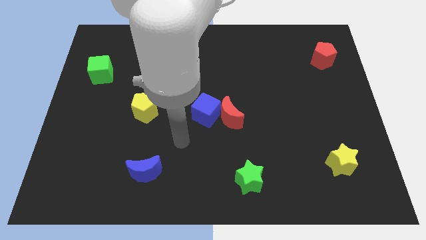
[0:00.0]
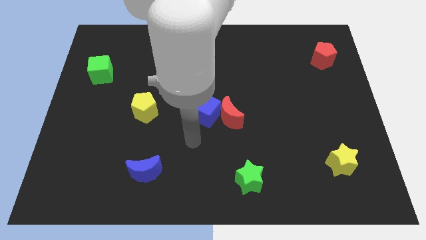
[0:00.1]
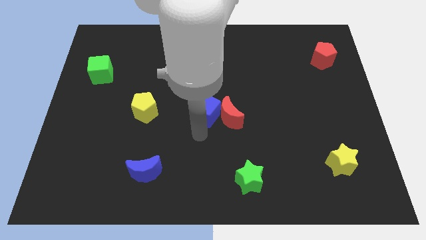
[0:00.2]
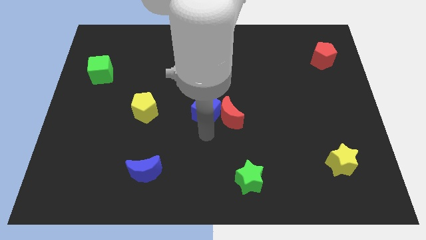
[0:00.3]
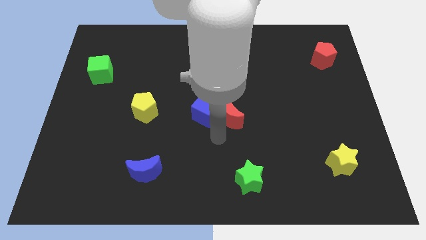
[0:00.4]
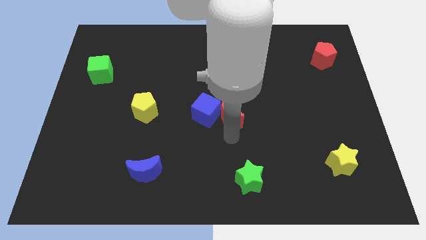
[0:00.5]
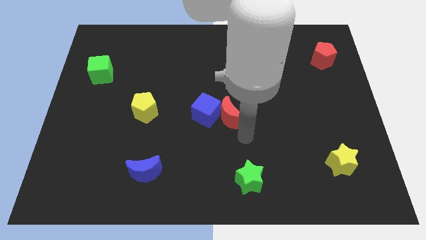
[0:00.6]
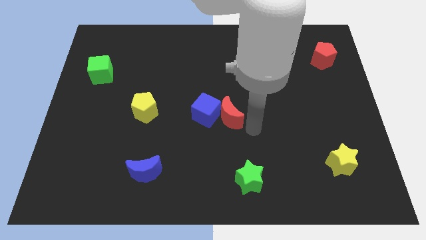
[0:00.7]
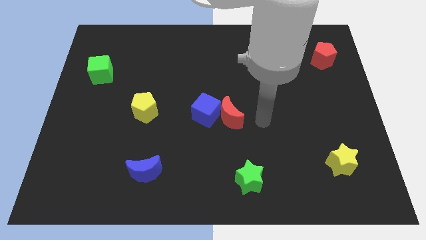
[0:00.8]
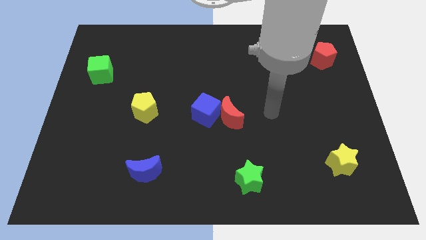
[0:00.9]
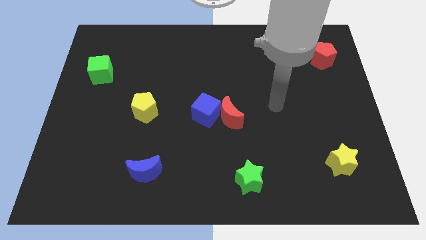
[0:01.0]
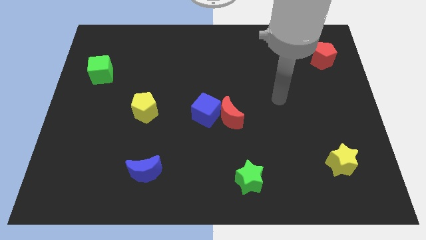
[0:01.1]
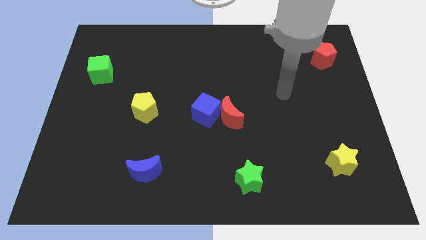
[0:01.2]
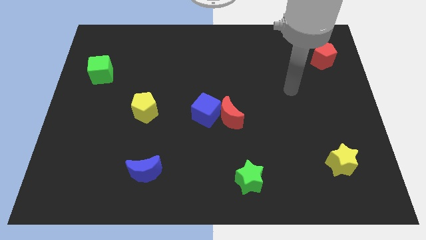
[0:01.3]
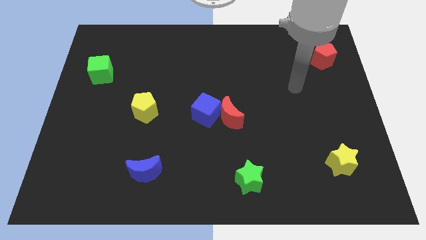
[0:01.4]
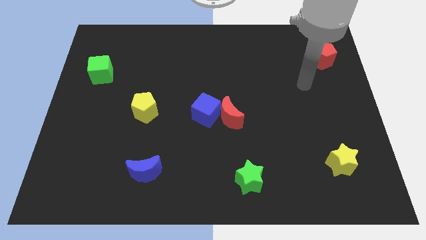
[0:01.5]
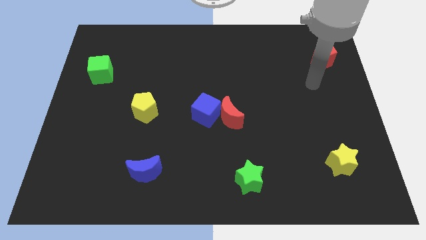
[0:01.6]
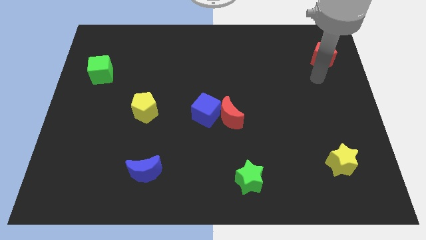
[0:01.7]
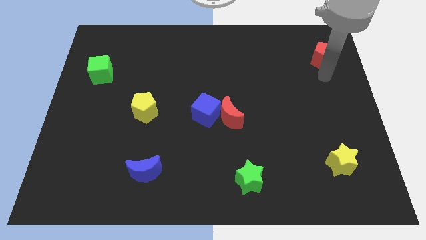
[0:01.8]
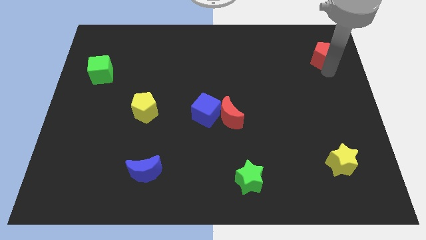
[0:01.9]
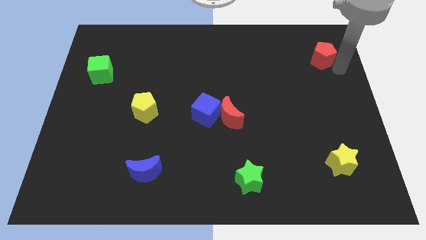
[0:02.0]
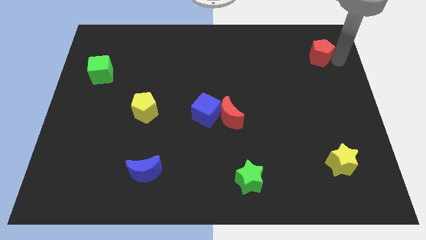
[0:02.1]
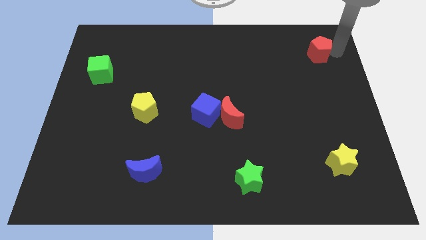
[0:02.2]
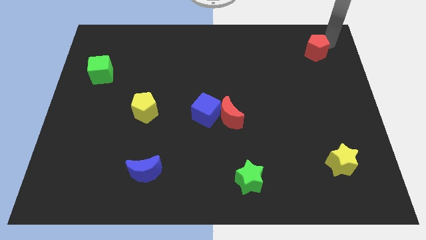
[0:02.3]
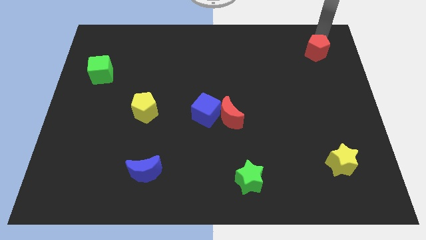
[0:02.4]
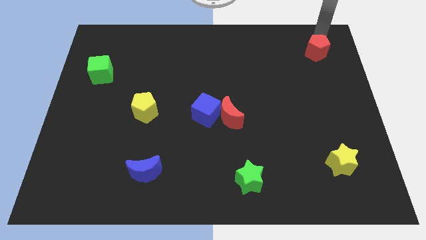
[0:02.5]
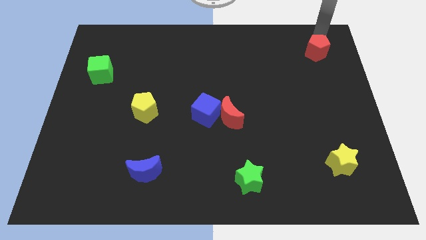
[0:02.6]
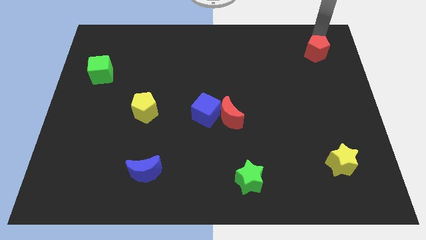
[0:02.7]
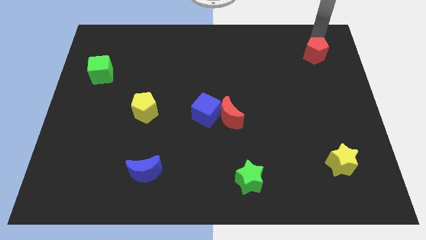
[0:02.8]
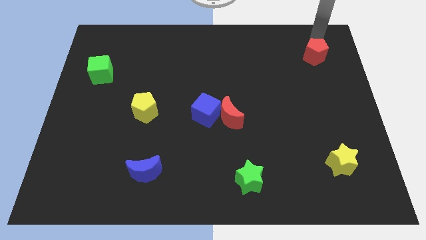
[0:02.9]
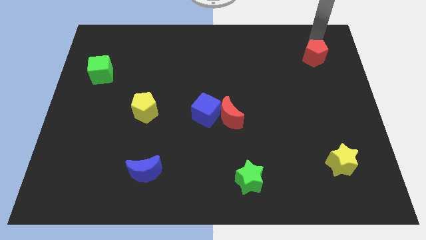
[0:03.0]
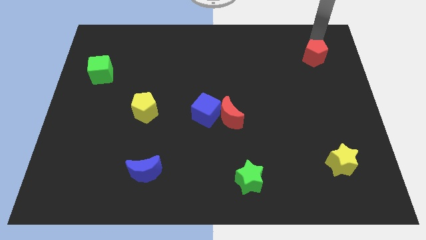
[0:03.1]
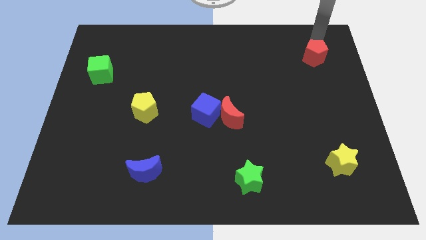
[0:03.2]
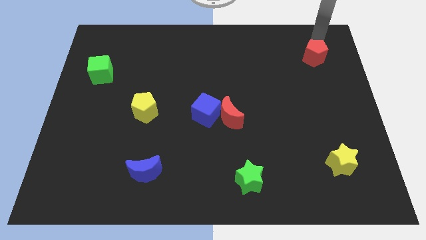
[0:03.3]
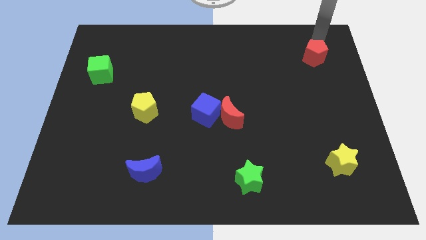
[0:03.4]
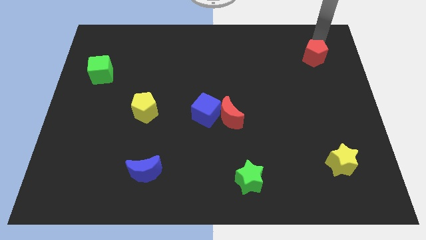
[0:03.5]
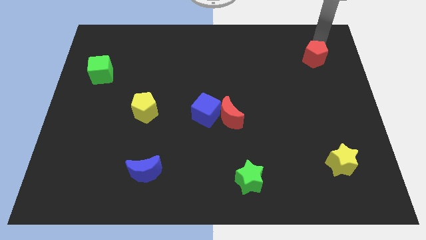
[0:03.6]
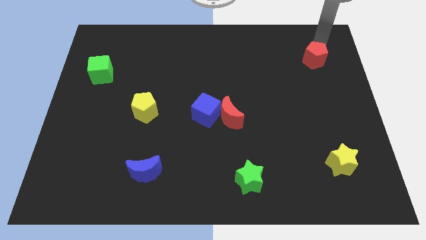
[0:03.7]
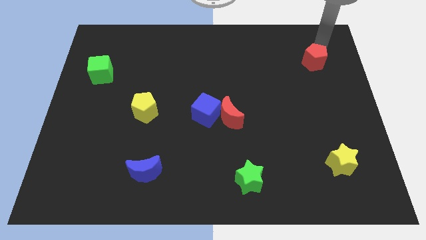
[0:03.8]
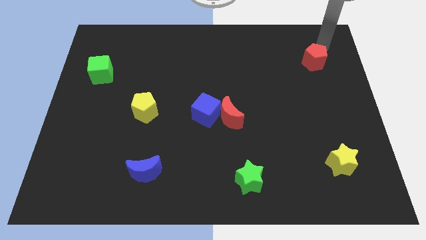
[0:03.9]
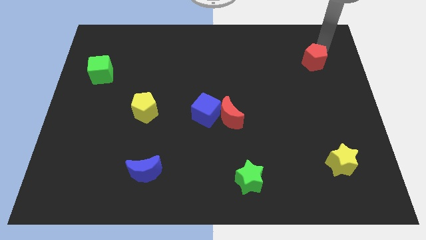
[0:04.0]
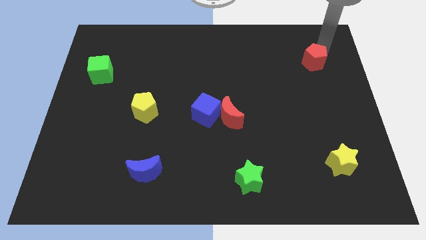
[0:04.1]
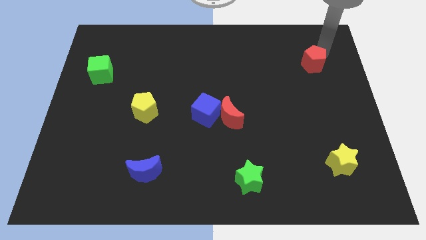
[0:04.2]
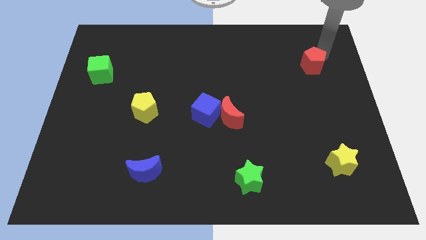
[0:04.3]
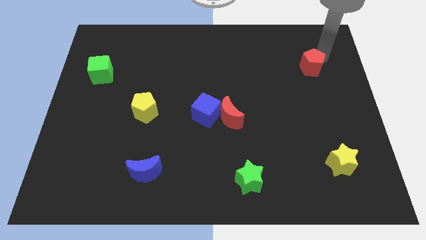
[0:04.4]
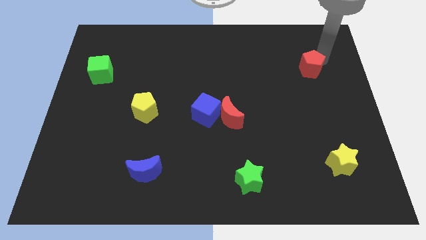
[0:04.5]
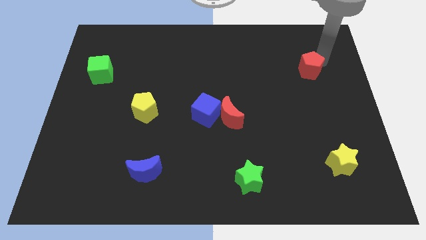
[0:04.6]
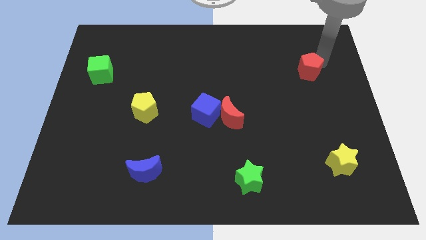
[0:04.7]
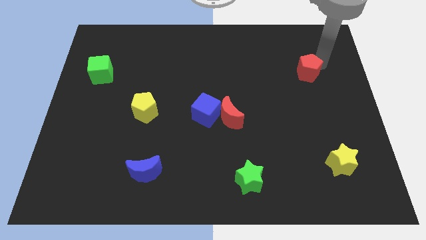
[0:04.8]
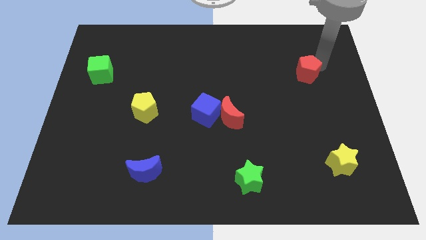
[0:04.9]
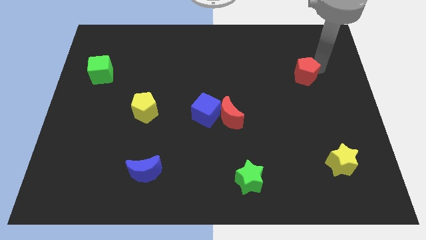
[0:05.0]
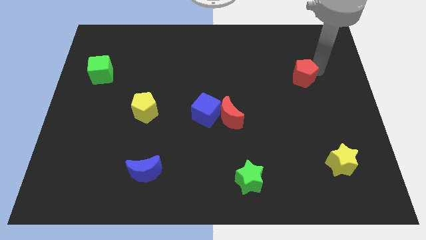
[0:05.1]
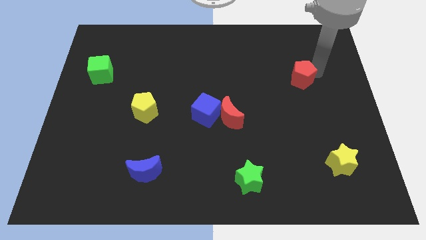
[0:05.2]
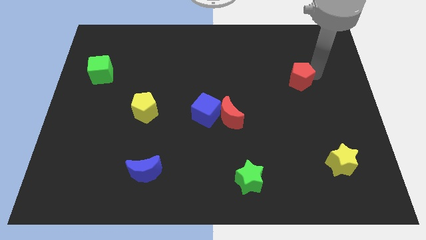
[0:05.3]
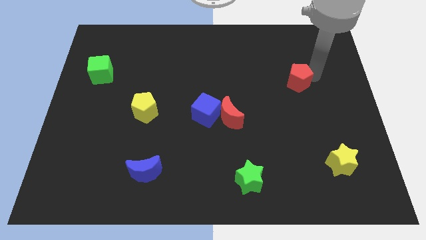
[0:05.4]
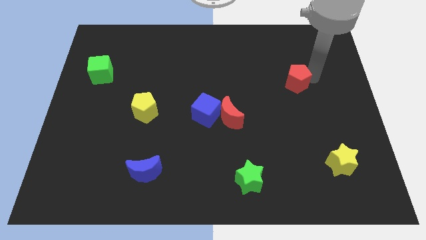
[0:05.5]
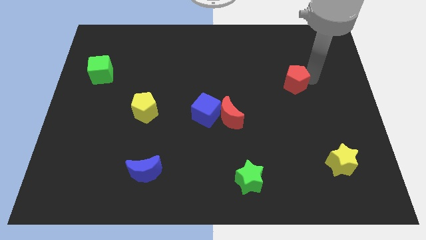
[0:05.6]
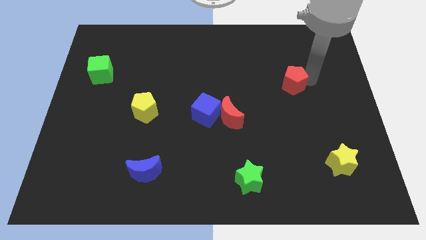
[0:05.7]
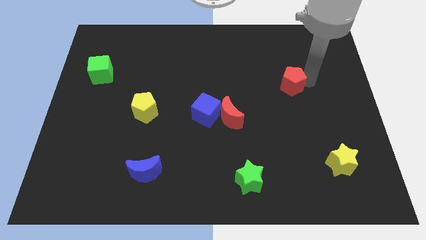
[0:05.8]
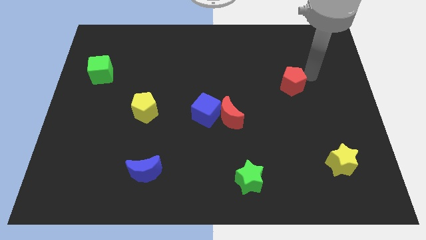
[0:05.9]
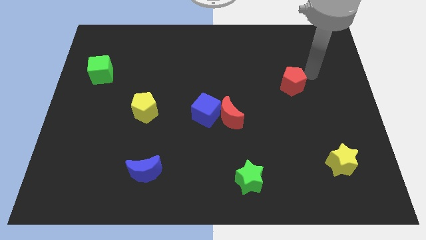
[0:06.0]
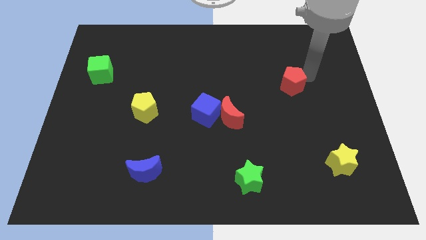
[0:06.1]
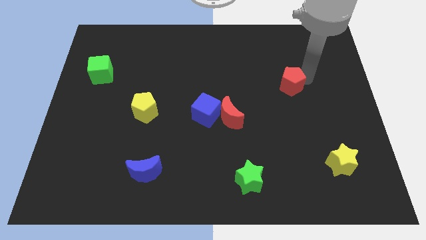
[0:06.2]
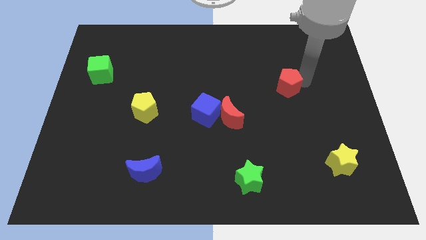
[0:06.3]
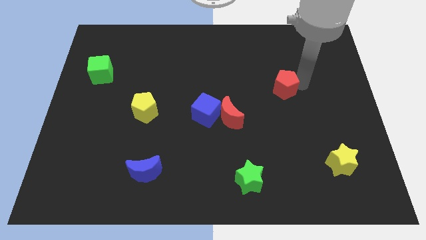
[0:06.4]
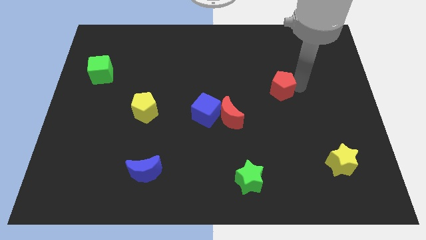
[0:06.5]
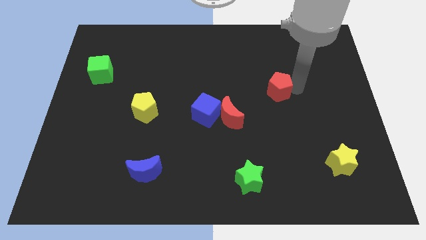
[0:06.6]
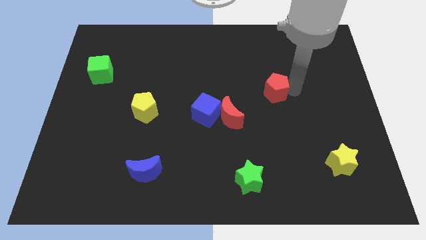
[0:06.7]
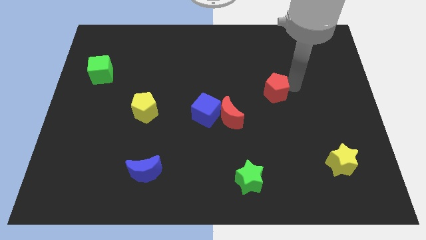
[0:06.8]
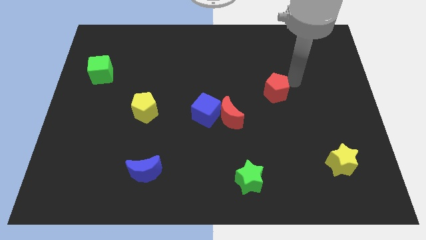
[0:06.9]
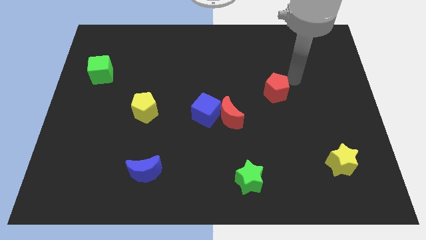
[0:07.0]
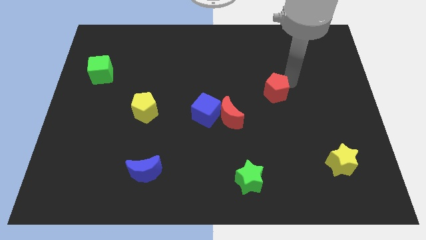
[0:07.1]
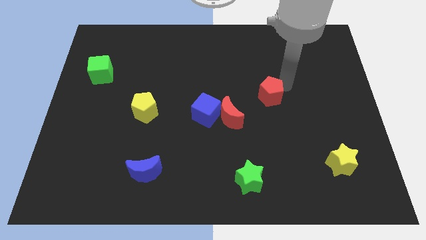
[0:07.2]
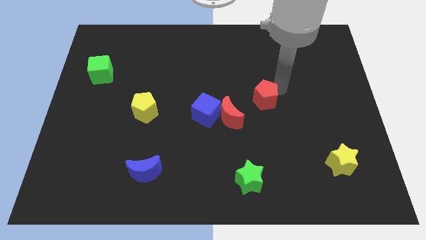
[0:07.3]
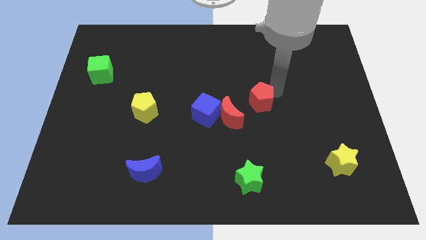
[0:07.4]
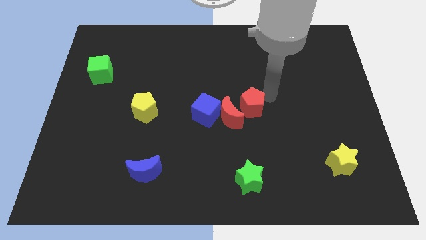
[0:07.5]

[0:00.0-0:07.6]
slide the red pentagon next to the red moon
